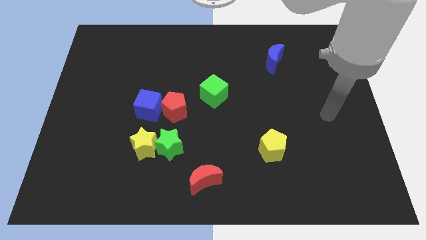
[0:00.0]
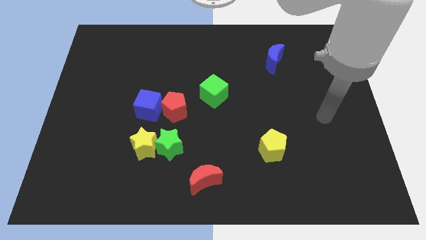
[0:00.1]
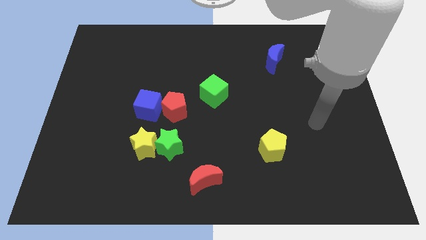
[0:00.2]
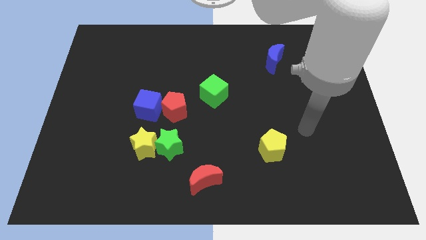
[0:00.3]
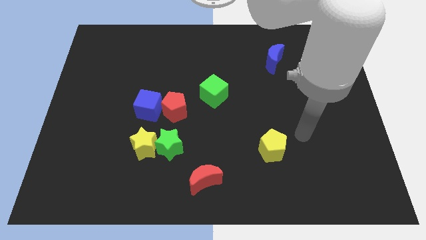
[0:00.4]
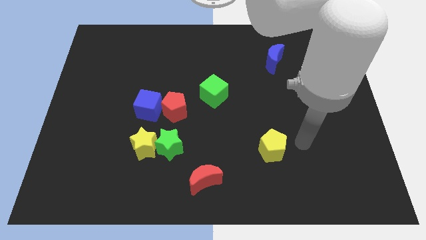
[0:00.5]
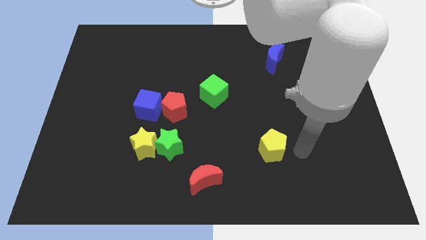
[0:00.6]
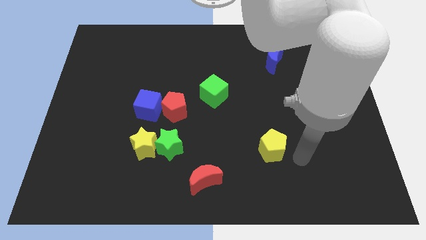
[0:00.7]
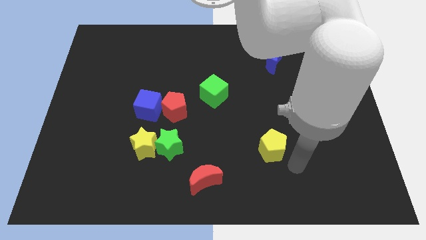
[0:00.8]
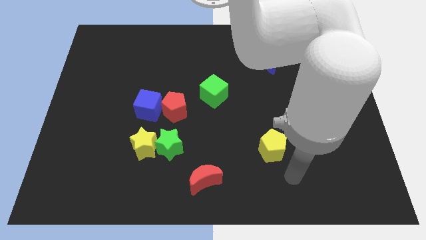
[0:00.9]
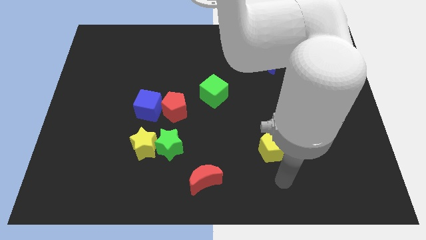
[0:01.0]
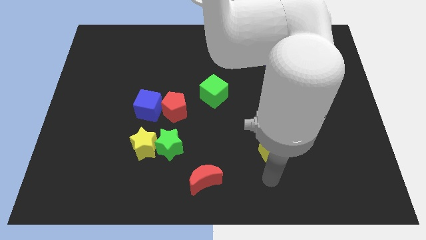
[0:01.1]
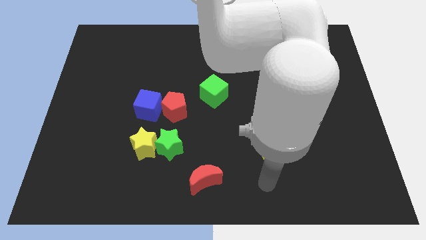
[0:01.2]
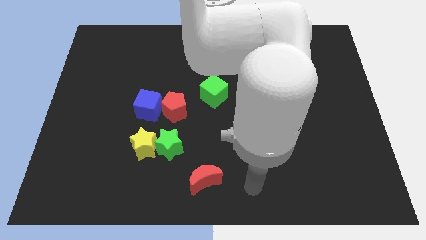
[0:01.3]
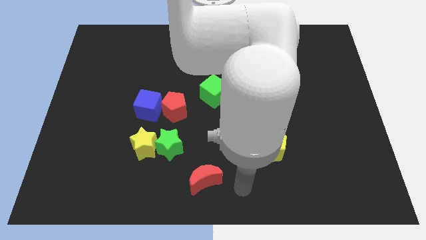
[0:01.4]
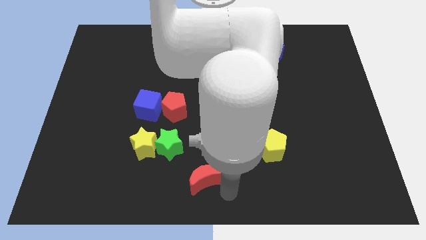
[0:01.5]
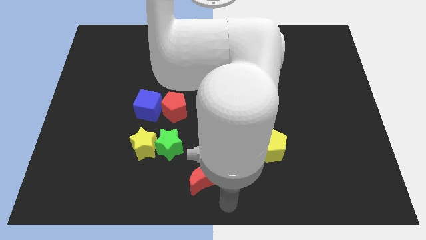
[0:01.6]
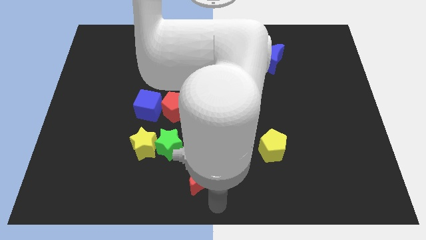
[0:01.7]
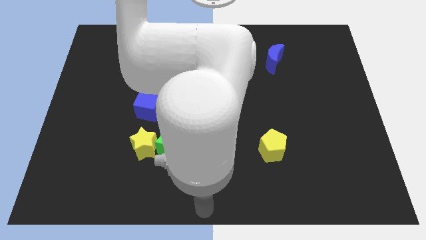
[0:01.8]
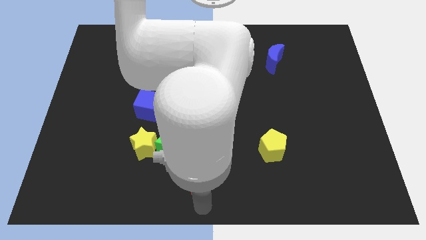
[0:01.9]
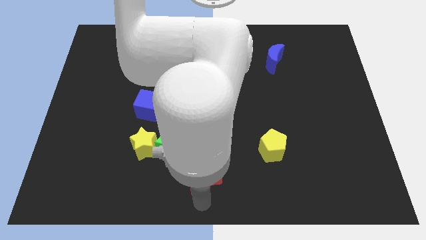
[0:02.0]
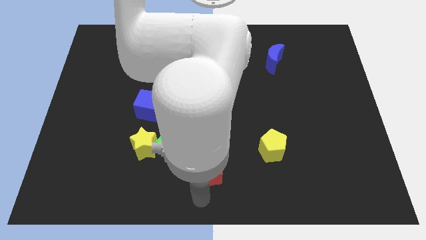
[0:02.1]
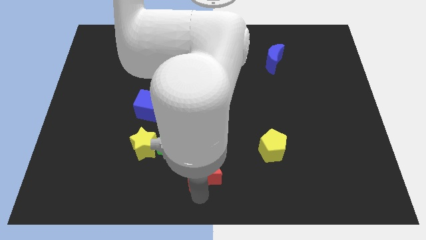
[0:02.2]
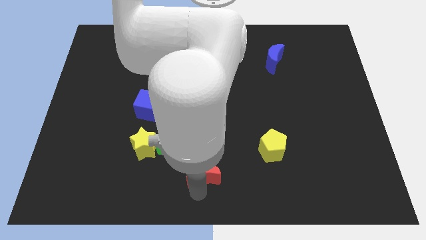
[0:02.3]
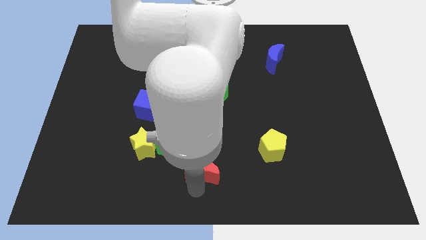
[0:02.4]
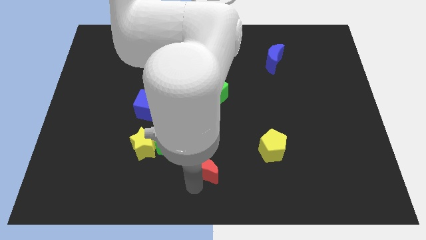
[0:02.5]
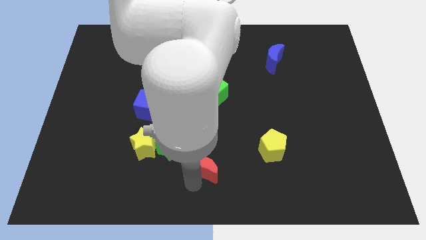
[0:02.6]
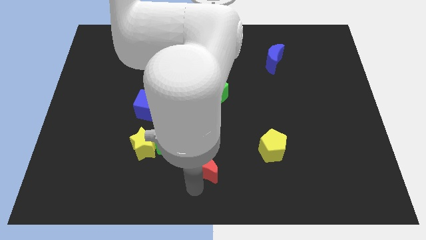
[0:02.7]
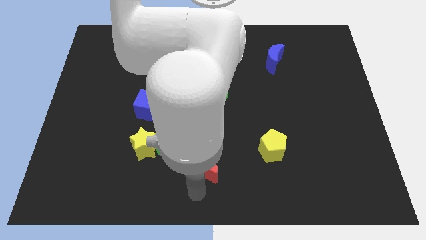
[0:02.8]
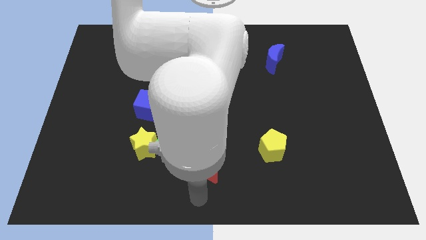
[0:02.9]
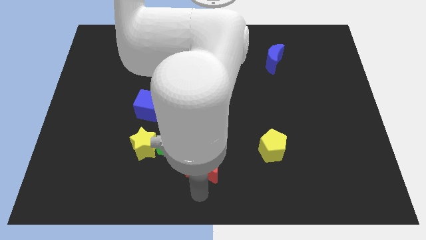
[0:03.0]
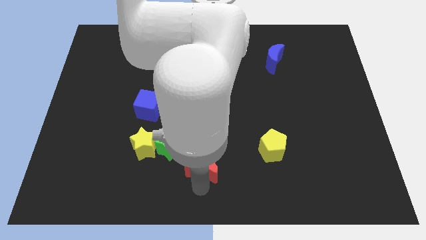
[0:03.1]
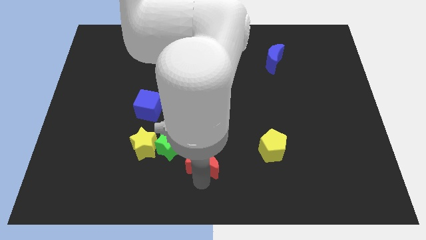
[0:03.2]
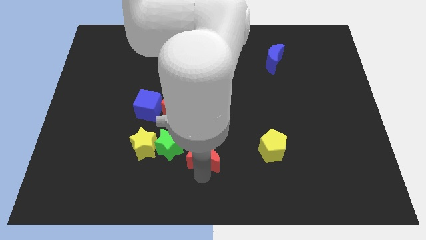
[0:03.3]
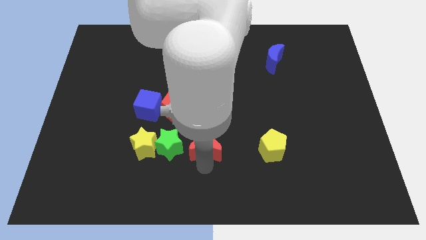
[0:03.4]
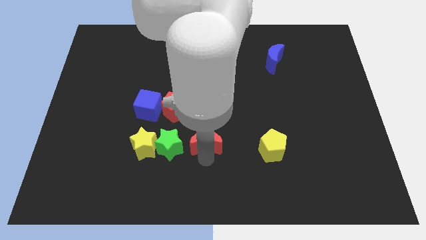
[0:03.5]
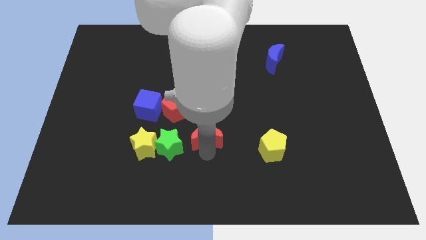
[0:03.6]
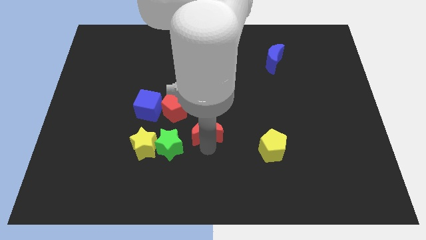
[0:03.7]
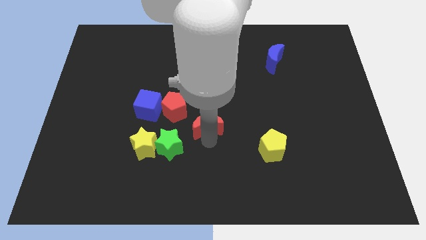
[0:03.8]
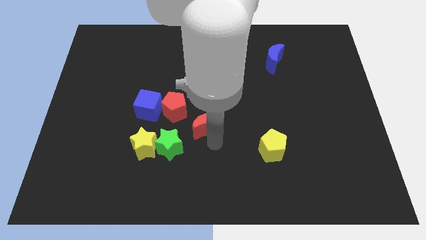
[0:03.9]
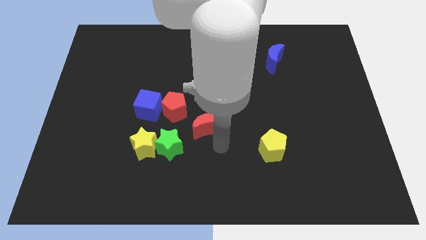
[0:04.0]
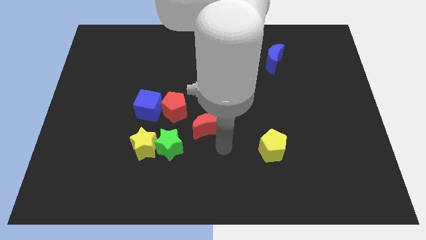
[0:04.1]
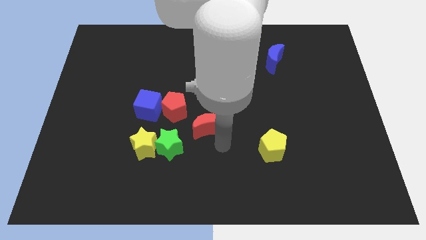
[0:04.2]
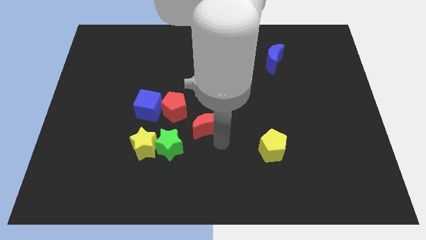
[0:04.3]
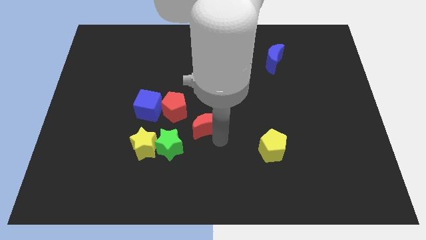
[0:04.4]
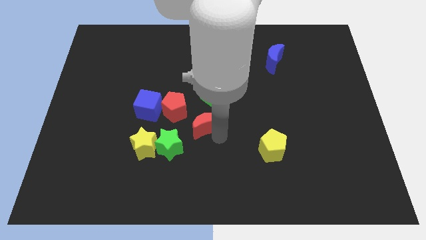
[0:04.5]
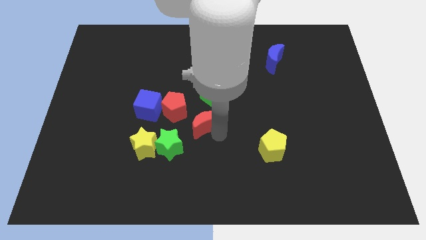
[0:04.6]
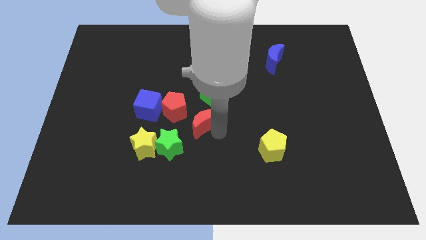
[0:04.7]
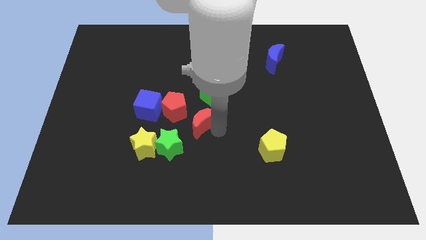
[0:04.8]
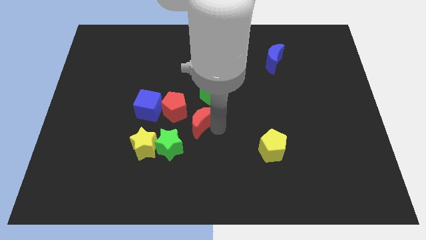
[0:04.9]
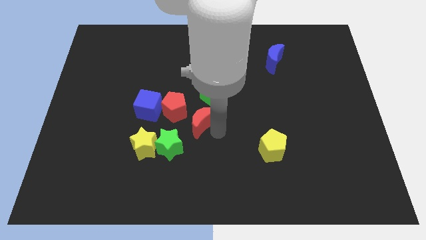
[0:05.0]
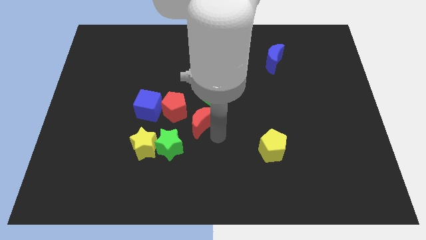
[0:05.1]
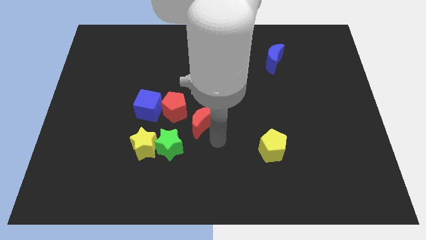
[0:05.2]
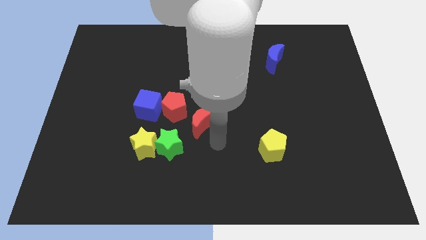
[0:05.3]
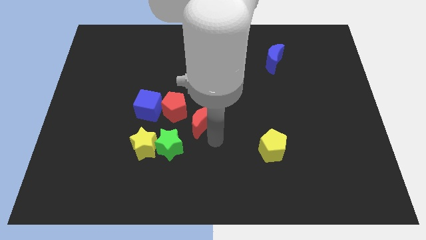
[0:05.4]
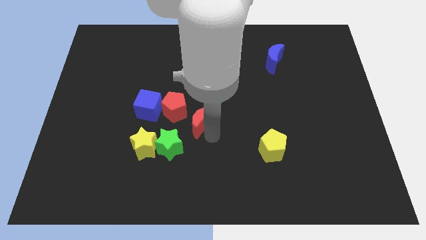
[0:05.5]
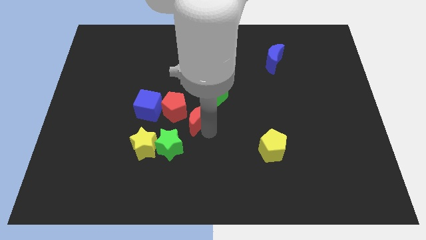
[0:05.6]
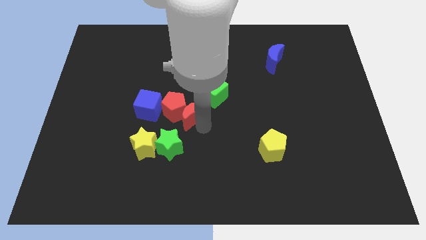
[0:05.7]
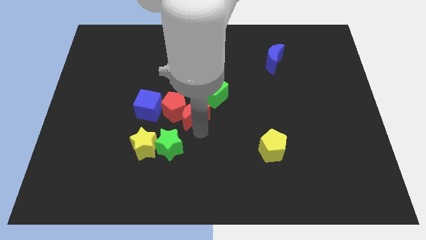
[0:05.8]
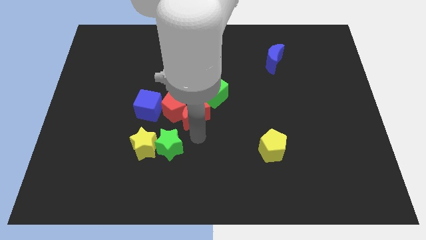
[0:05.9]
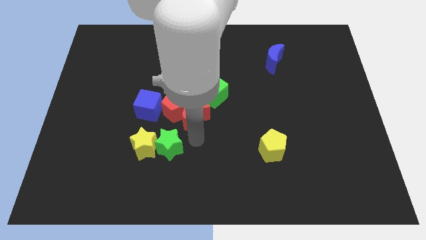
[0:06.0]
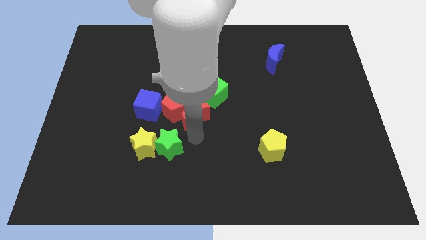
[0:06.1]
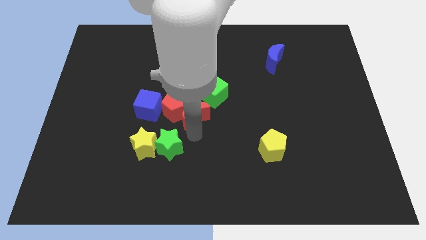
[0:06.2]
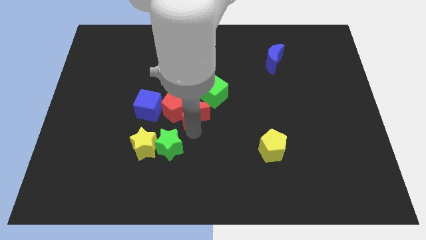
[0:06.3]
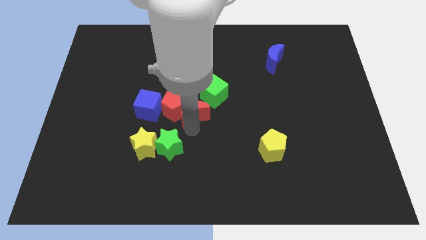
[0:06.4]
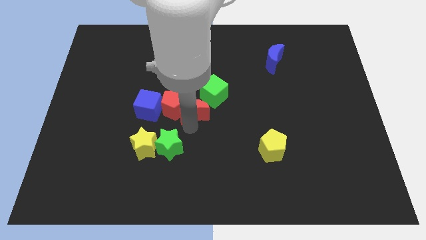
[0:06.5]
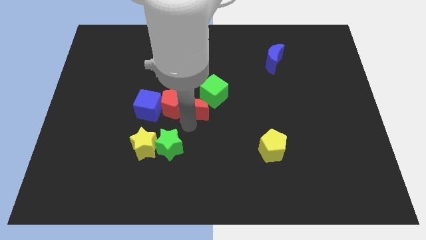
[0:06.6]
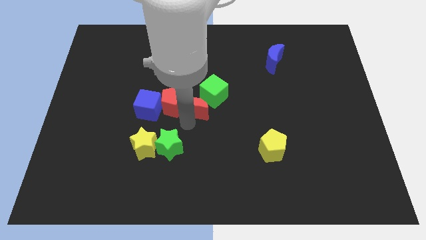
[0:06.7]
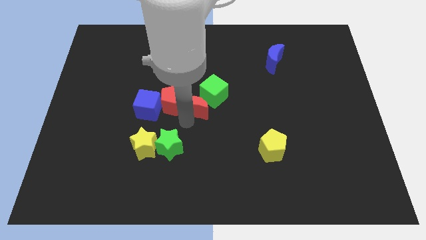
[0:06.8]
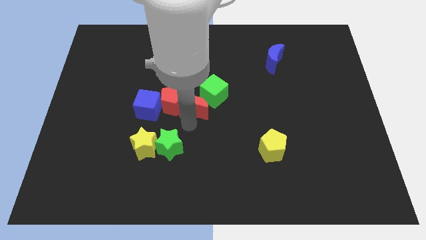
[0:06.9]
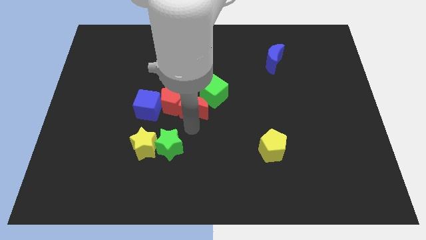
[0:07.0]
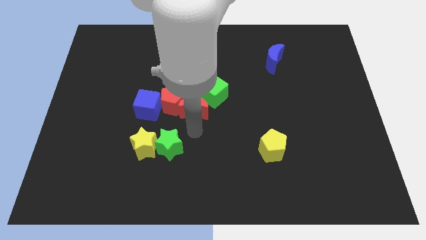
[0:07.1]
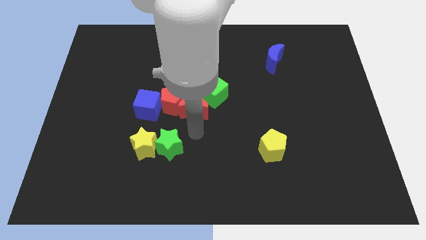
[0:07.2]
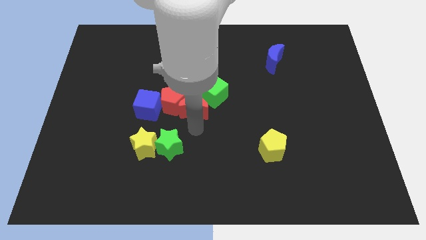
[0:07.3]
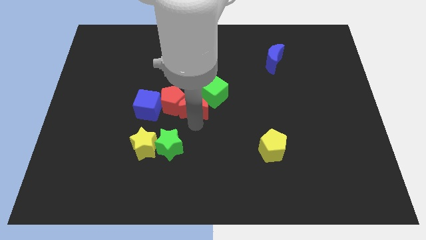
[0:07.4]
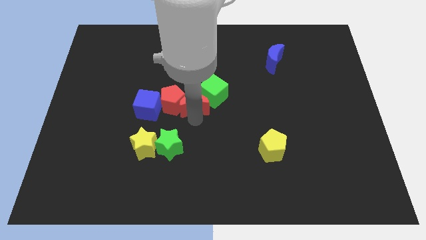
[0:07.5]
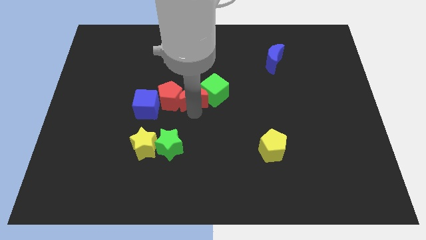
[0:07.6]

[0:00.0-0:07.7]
move the red moon up

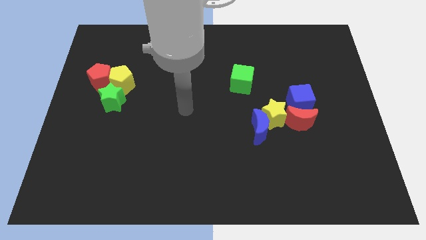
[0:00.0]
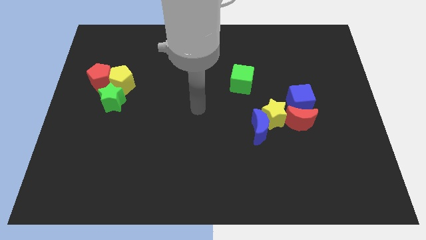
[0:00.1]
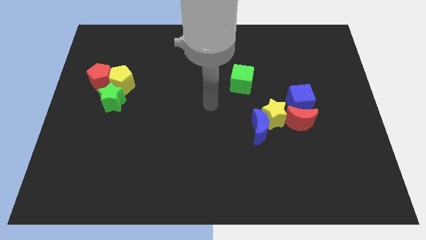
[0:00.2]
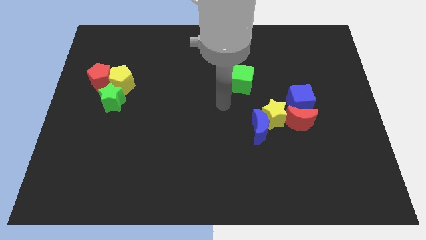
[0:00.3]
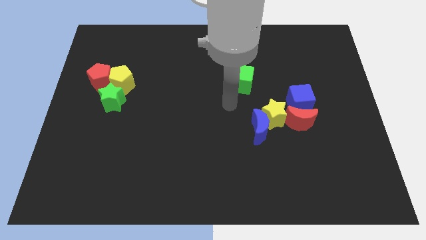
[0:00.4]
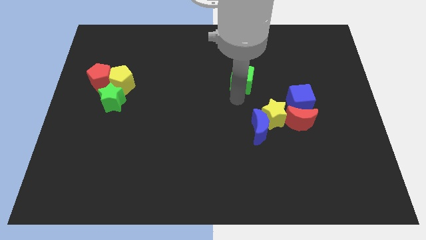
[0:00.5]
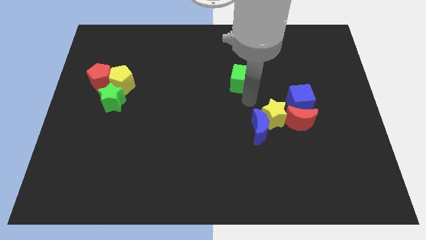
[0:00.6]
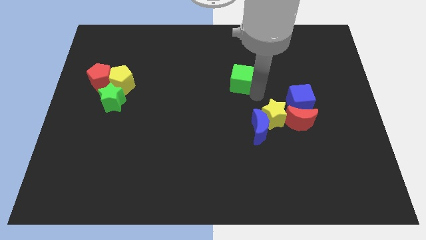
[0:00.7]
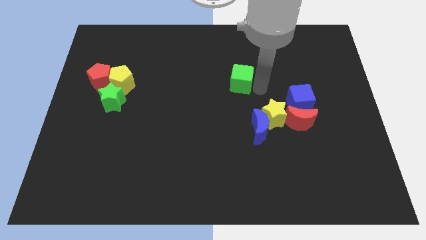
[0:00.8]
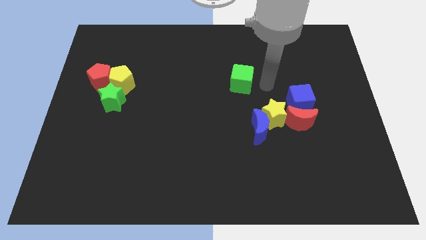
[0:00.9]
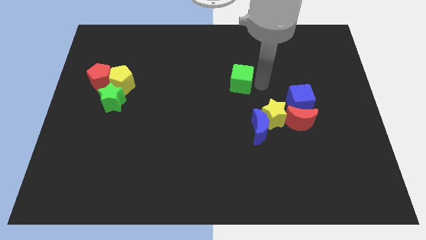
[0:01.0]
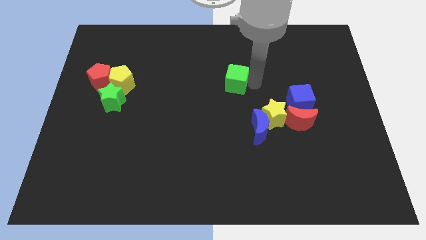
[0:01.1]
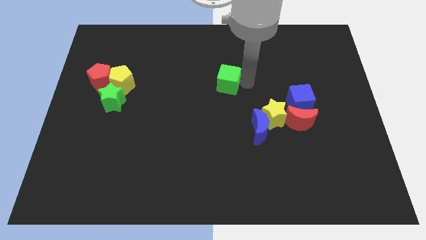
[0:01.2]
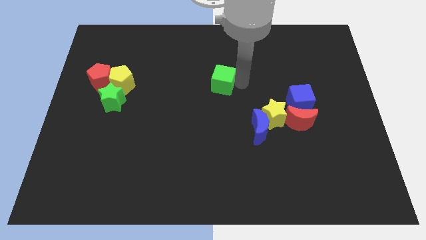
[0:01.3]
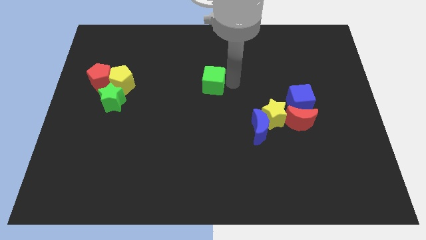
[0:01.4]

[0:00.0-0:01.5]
slightly push the green cube left
